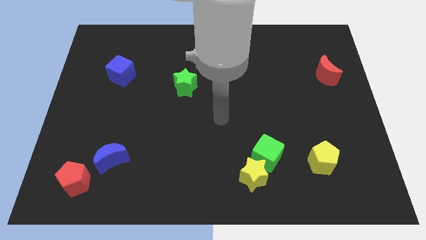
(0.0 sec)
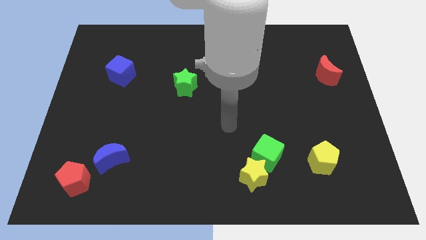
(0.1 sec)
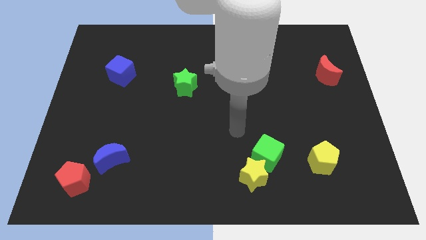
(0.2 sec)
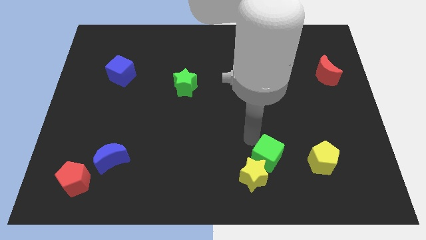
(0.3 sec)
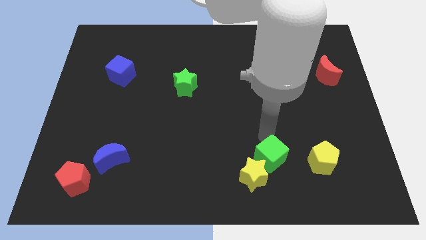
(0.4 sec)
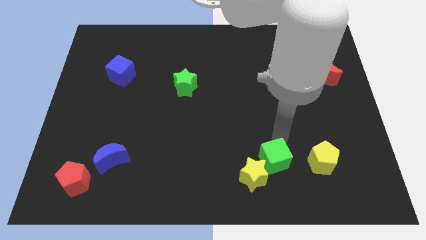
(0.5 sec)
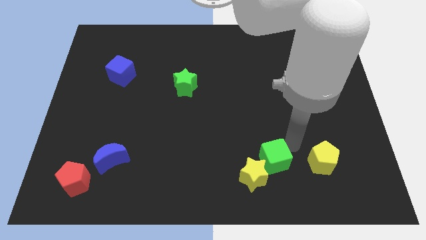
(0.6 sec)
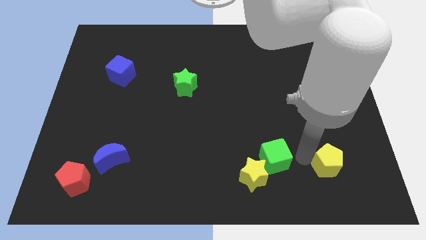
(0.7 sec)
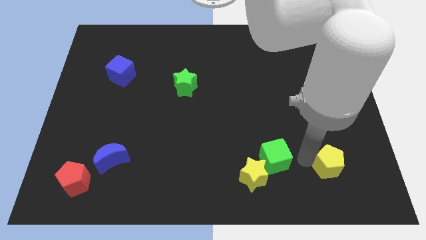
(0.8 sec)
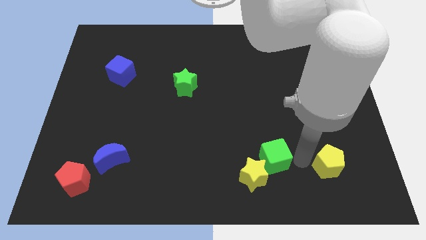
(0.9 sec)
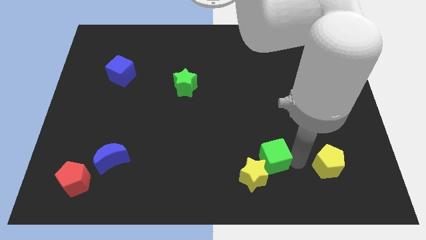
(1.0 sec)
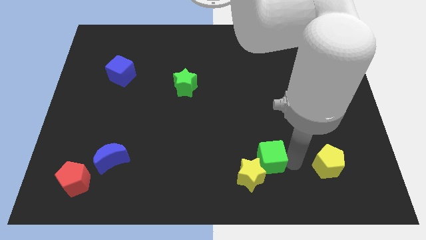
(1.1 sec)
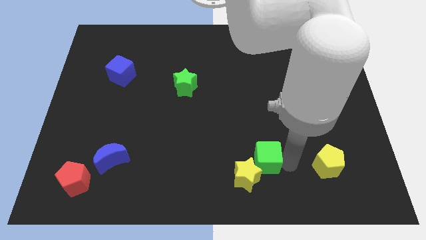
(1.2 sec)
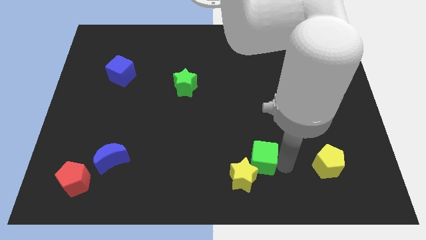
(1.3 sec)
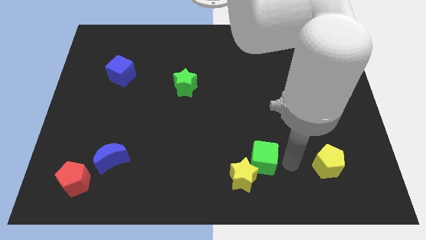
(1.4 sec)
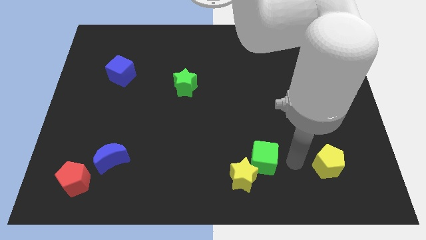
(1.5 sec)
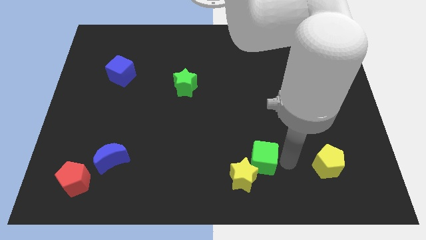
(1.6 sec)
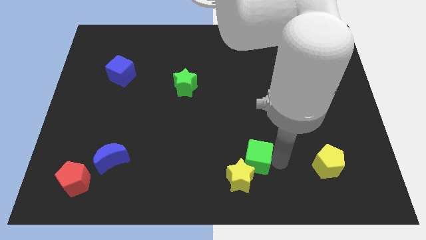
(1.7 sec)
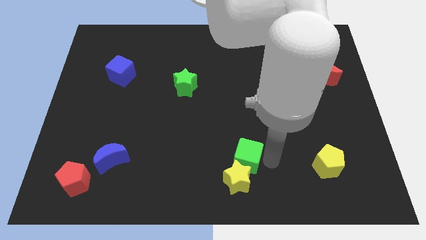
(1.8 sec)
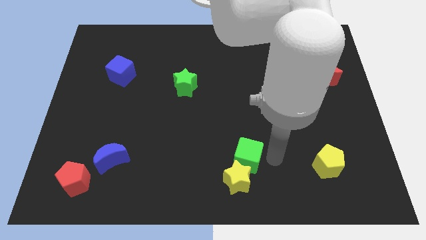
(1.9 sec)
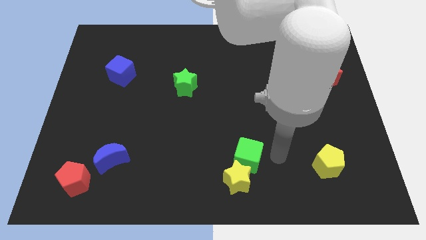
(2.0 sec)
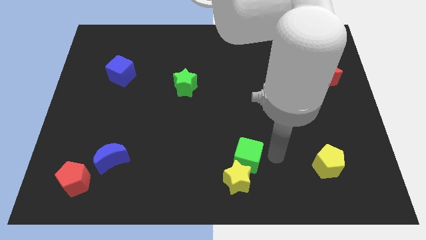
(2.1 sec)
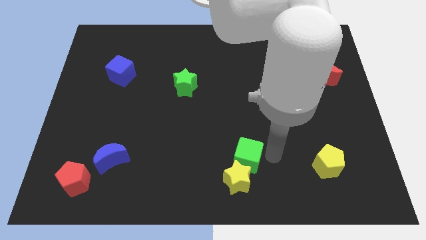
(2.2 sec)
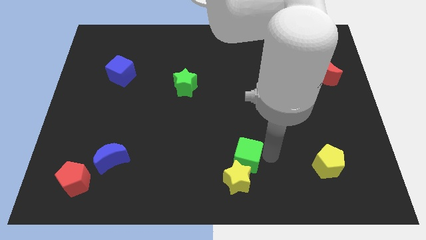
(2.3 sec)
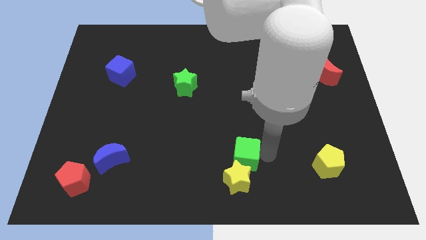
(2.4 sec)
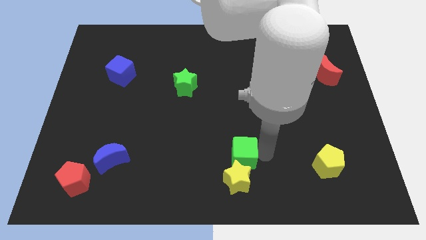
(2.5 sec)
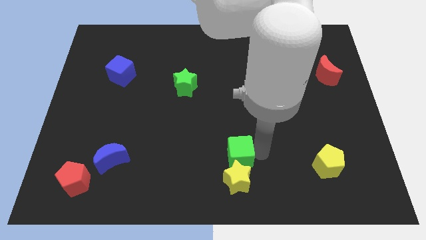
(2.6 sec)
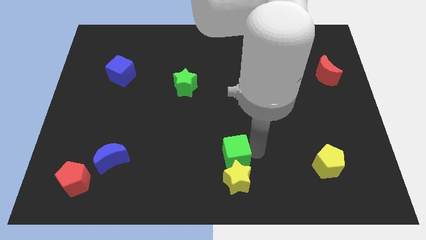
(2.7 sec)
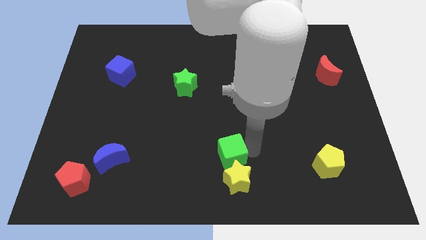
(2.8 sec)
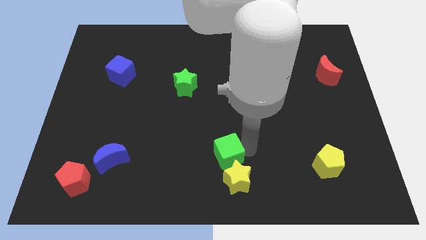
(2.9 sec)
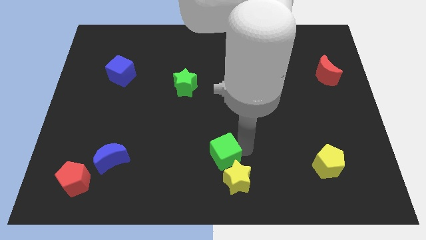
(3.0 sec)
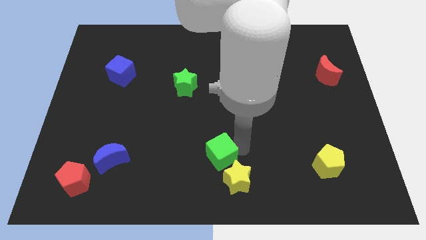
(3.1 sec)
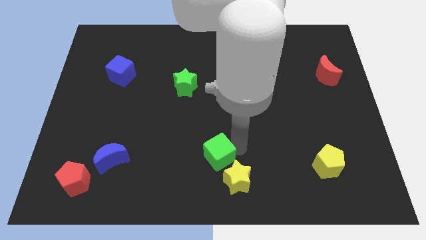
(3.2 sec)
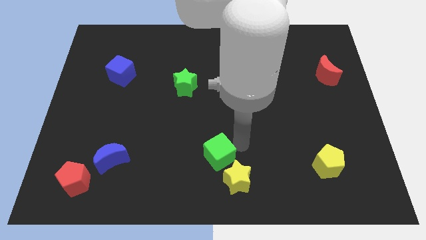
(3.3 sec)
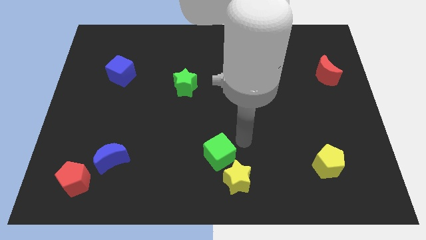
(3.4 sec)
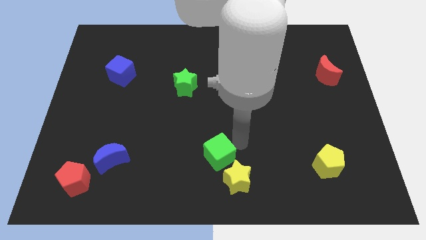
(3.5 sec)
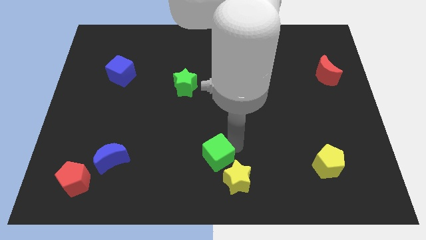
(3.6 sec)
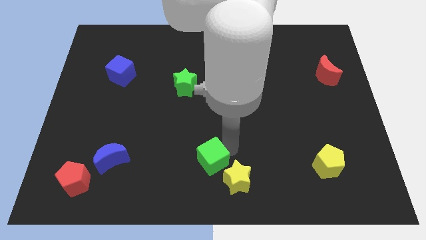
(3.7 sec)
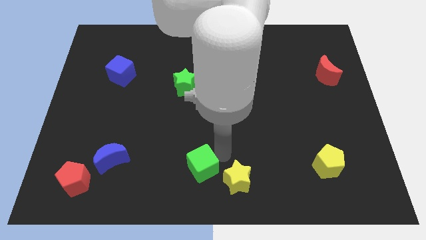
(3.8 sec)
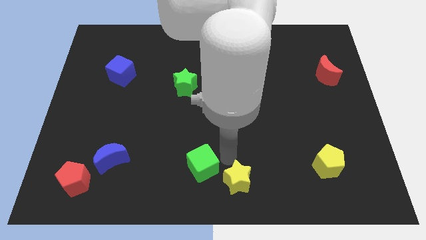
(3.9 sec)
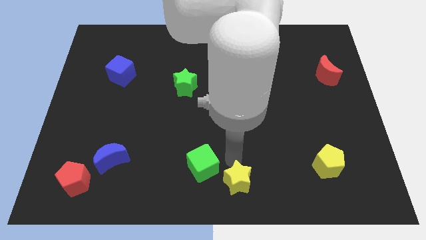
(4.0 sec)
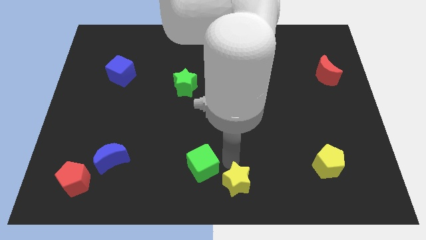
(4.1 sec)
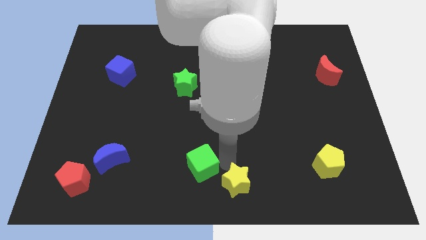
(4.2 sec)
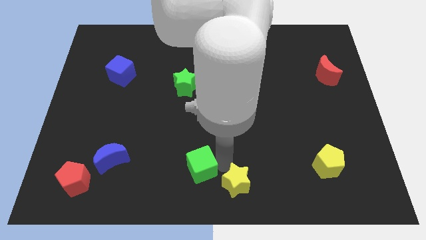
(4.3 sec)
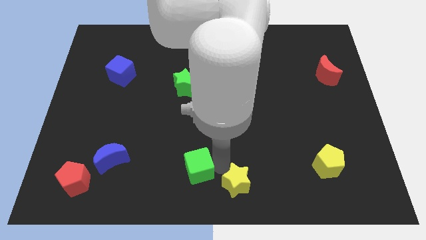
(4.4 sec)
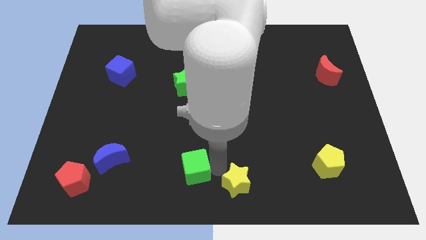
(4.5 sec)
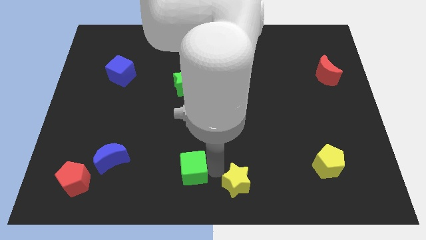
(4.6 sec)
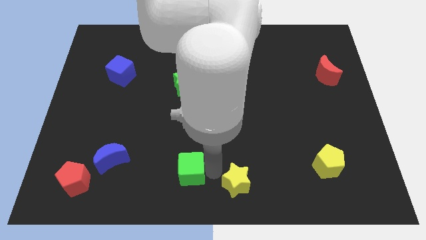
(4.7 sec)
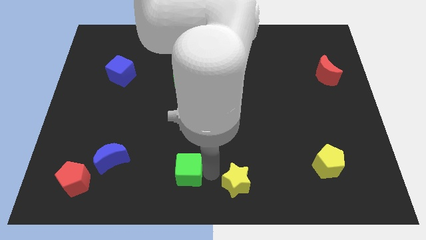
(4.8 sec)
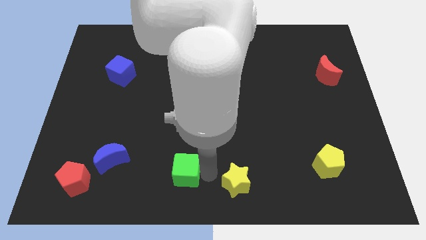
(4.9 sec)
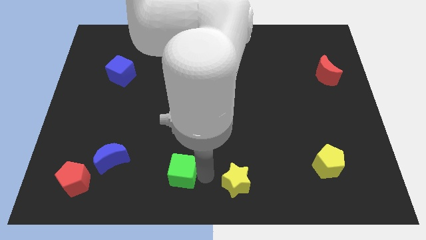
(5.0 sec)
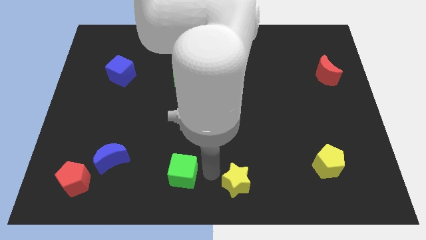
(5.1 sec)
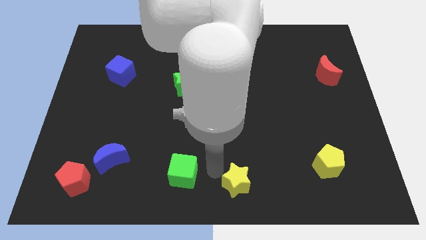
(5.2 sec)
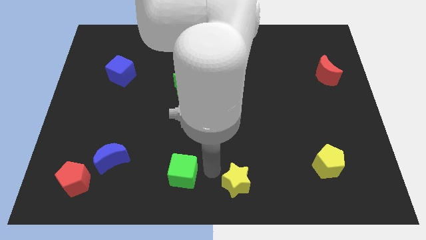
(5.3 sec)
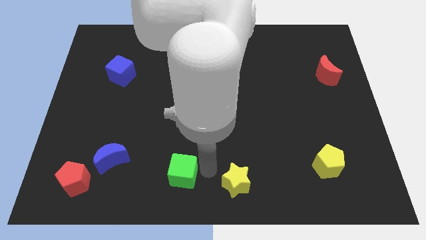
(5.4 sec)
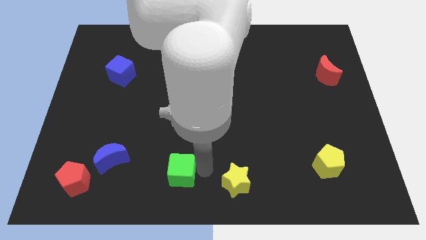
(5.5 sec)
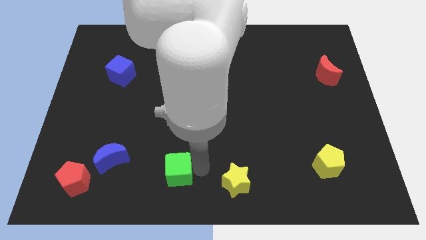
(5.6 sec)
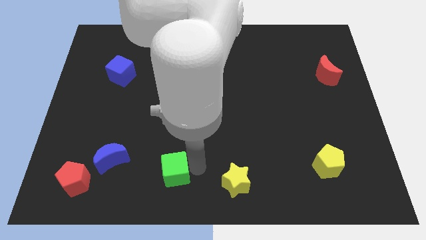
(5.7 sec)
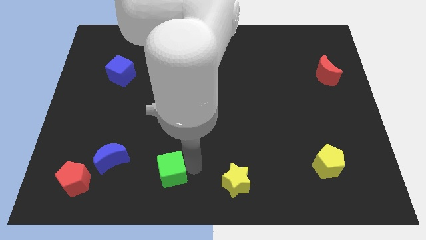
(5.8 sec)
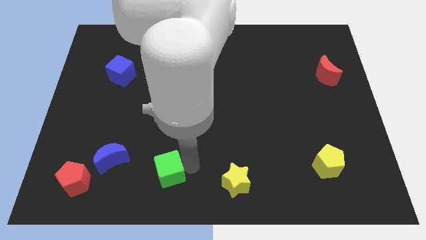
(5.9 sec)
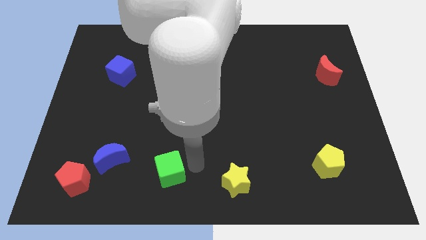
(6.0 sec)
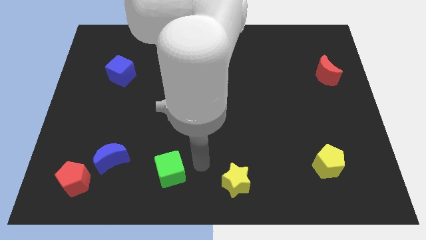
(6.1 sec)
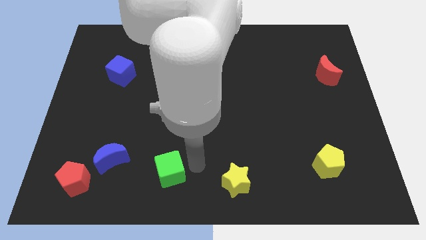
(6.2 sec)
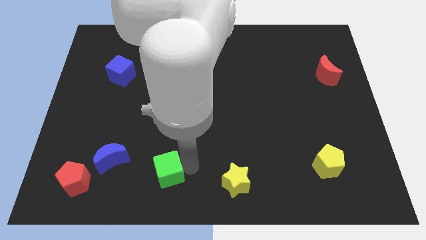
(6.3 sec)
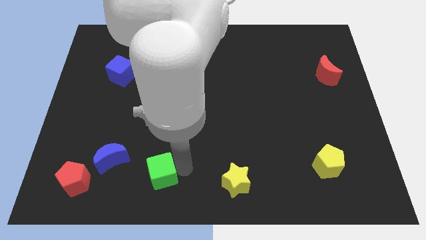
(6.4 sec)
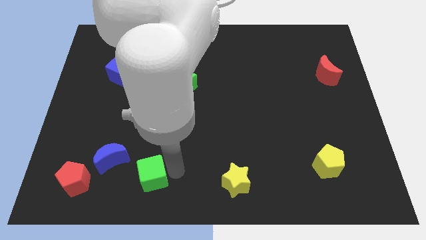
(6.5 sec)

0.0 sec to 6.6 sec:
push the green cube just right of the red pentagon

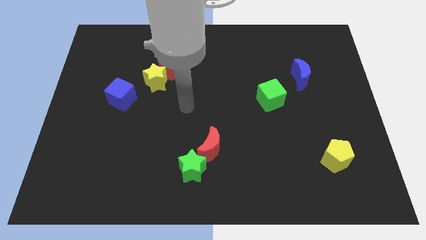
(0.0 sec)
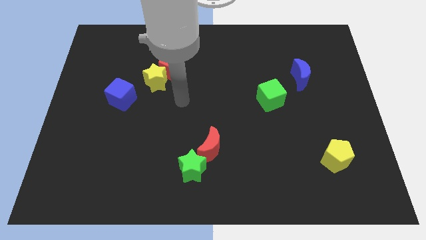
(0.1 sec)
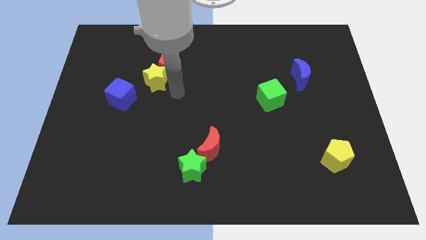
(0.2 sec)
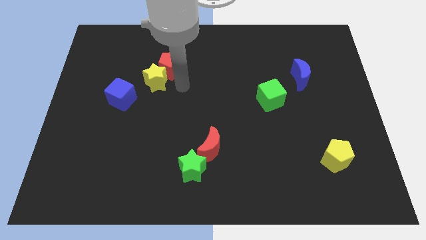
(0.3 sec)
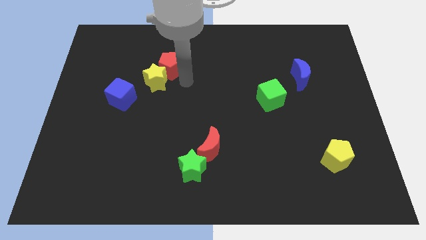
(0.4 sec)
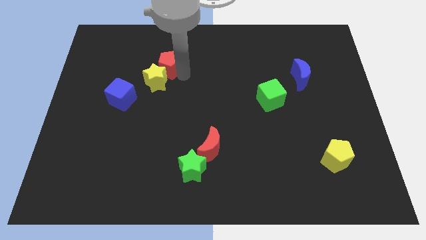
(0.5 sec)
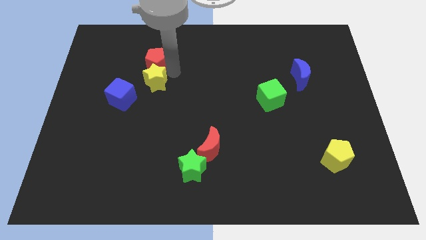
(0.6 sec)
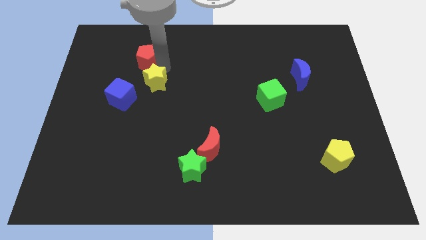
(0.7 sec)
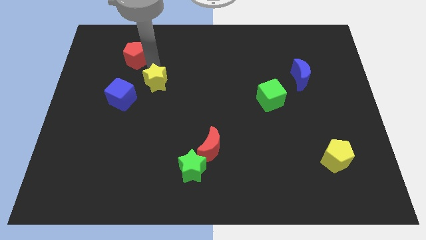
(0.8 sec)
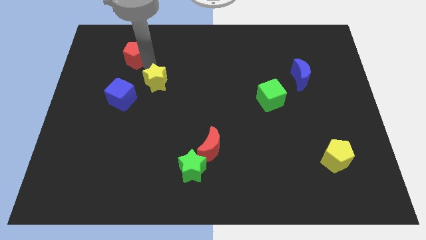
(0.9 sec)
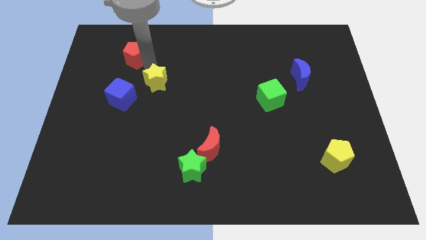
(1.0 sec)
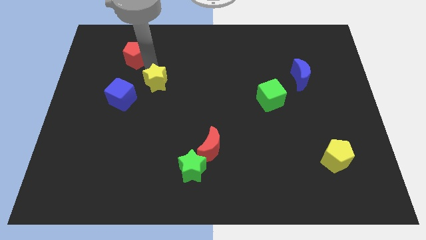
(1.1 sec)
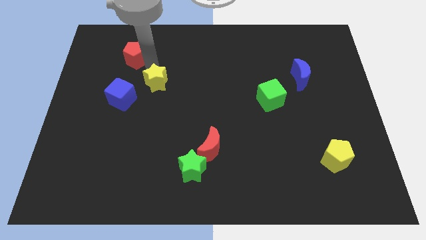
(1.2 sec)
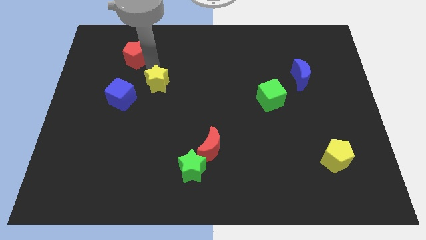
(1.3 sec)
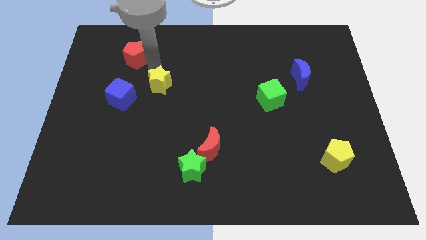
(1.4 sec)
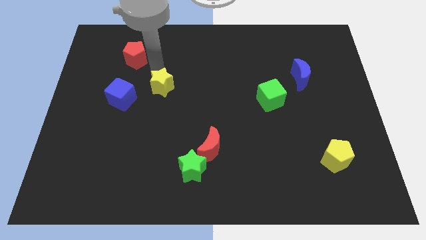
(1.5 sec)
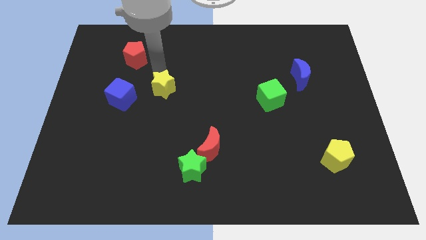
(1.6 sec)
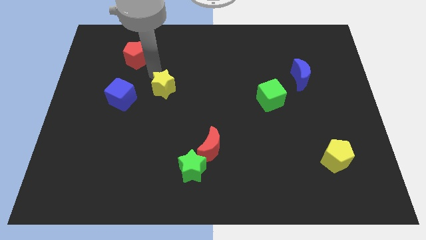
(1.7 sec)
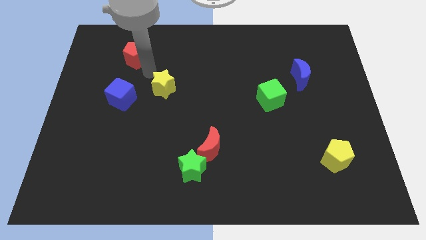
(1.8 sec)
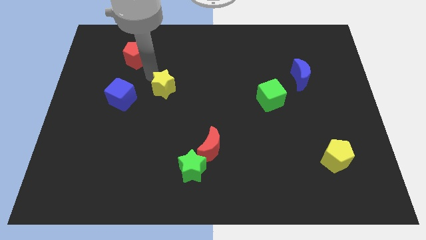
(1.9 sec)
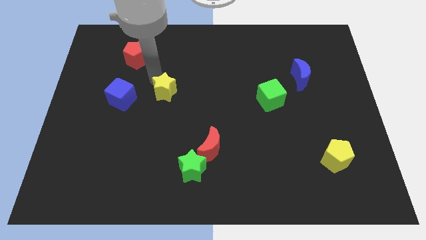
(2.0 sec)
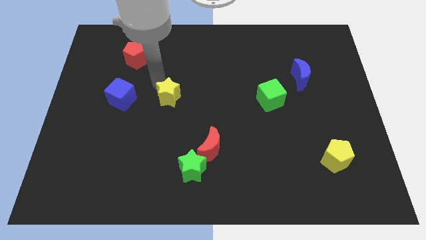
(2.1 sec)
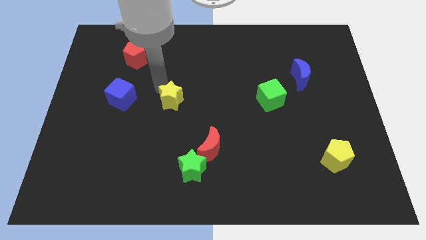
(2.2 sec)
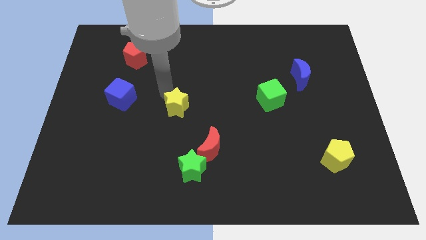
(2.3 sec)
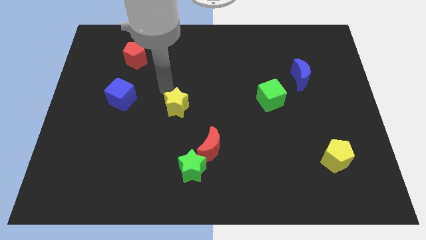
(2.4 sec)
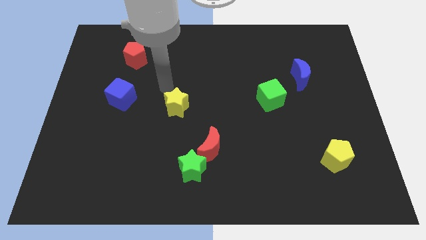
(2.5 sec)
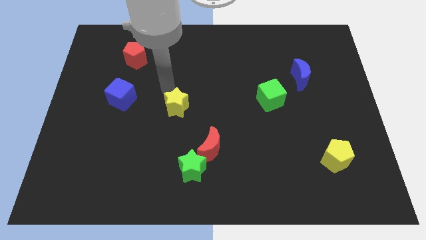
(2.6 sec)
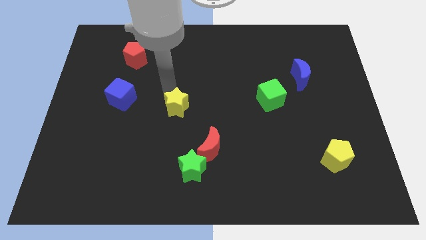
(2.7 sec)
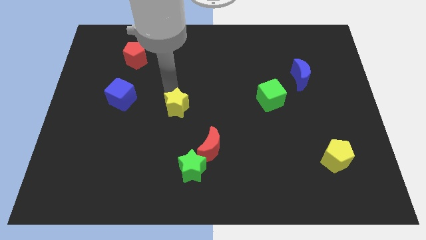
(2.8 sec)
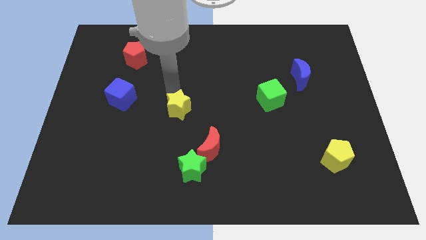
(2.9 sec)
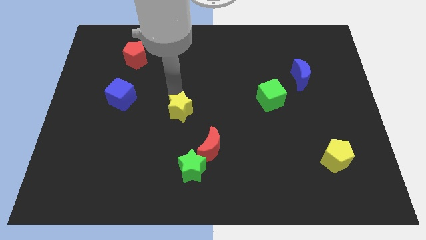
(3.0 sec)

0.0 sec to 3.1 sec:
slide the yellow star to the top left side of the red moon
